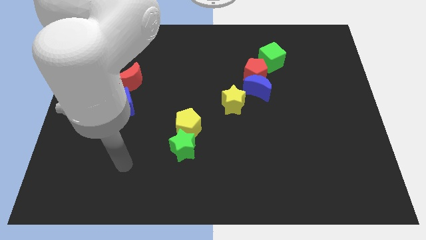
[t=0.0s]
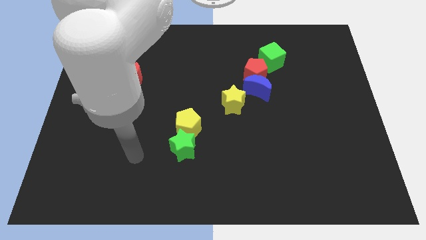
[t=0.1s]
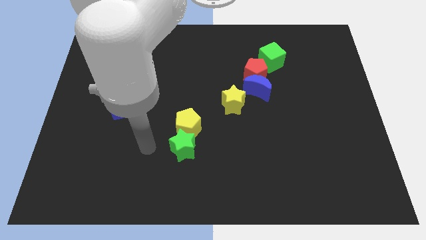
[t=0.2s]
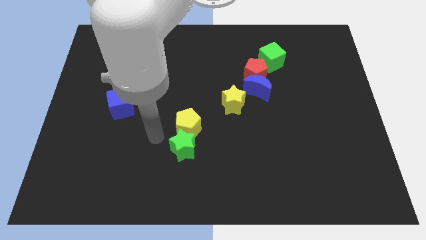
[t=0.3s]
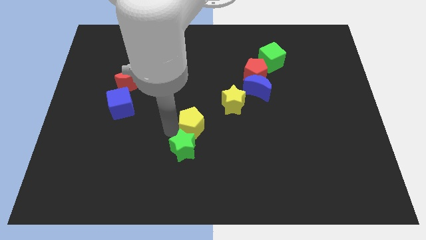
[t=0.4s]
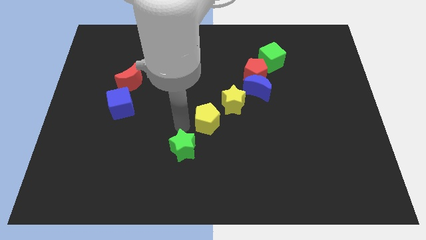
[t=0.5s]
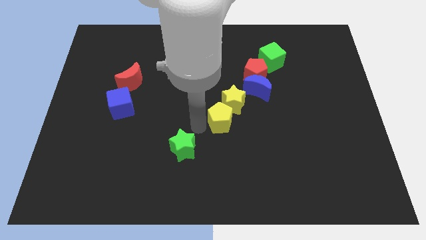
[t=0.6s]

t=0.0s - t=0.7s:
move the green star away from the yellow pentagon

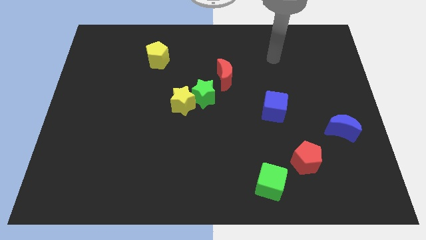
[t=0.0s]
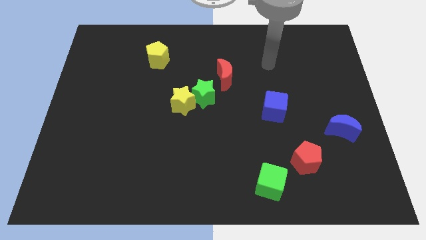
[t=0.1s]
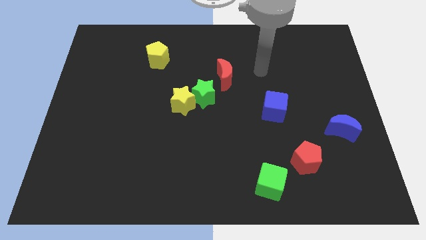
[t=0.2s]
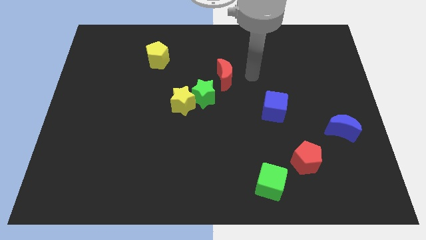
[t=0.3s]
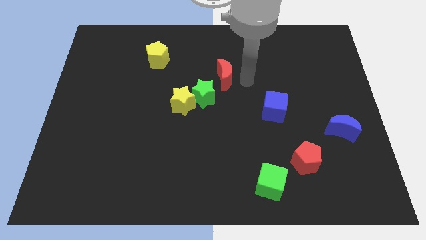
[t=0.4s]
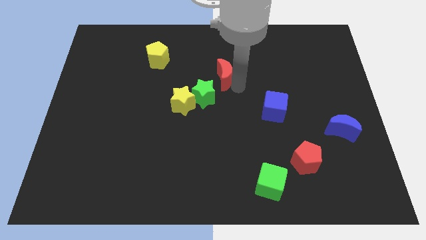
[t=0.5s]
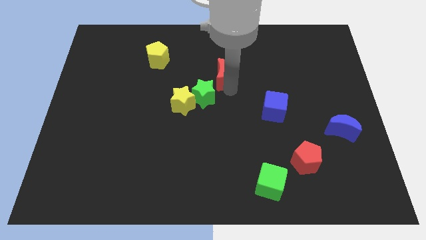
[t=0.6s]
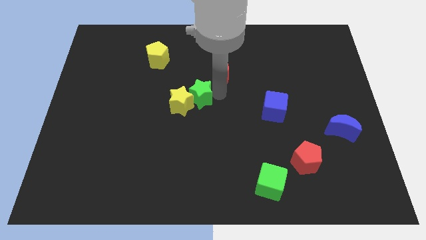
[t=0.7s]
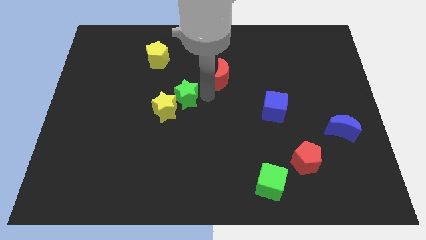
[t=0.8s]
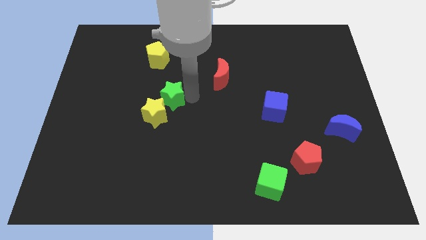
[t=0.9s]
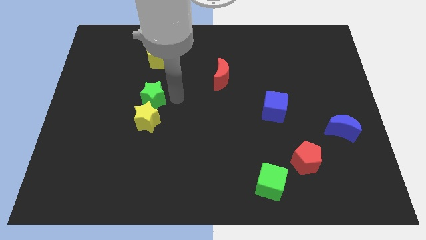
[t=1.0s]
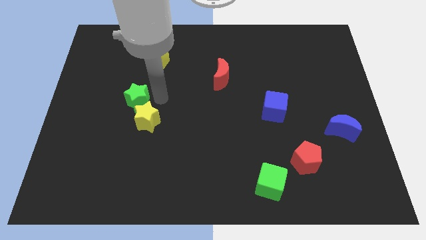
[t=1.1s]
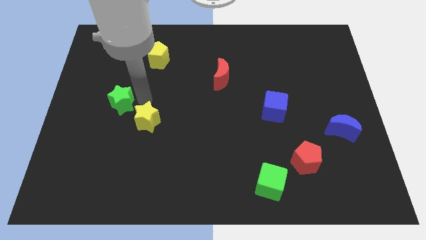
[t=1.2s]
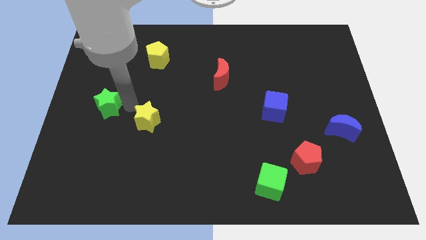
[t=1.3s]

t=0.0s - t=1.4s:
move the yellow star away from the green star

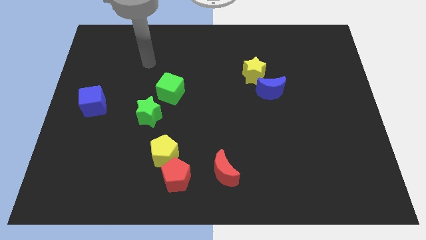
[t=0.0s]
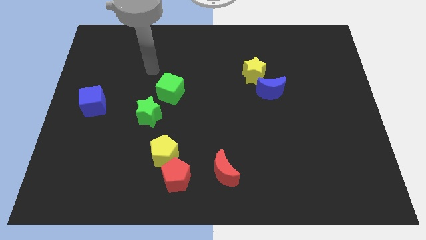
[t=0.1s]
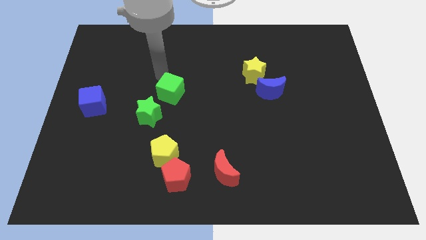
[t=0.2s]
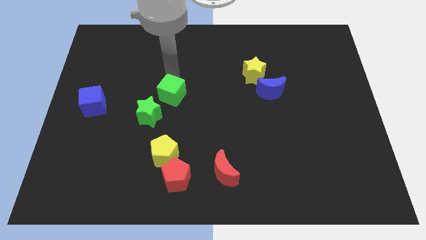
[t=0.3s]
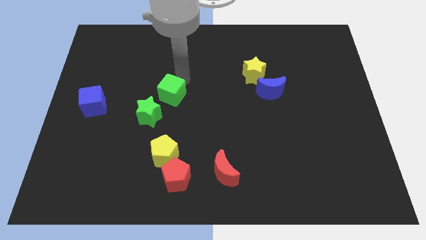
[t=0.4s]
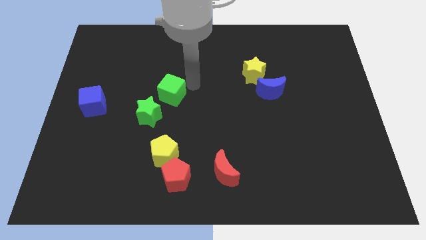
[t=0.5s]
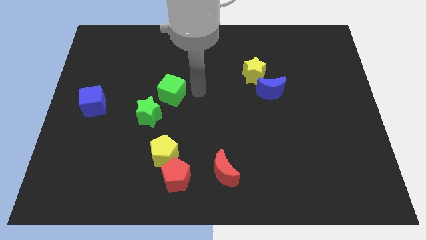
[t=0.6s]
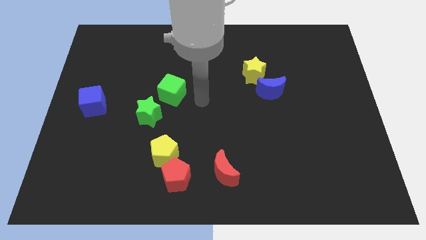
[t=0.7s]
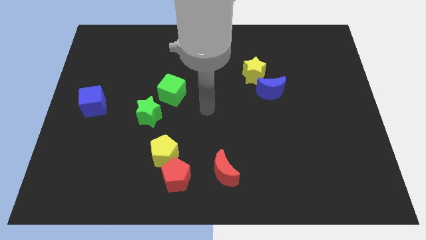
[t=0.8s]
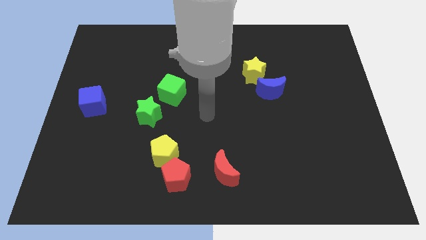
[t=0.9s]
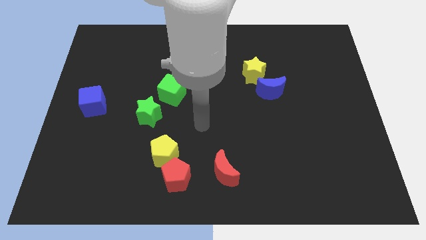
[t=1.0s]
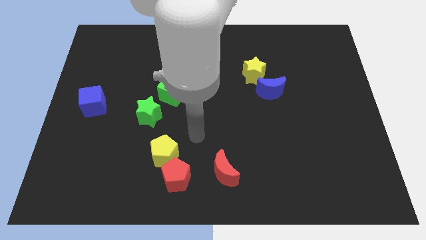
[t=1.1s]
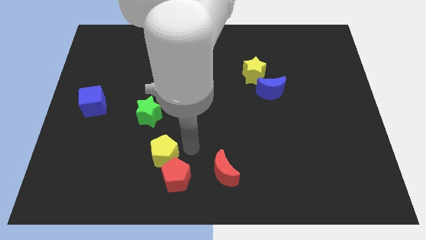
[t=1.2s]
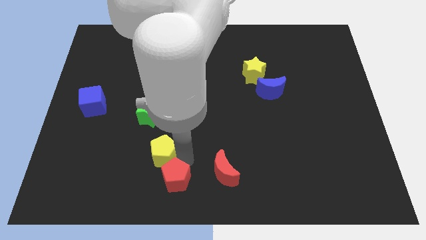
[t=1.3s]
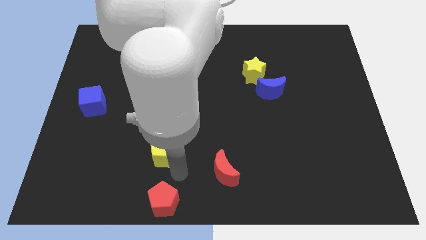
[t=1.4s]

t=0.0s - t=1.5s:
pull the yellow pentagon apart from the red pentagon

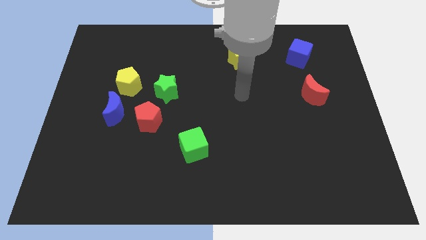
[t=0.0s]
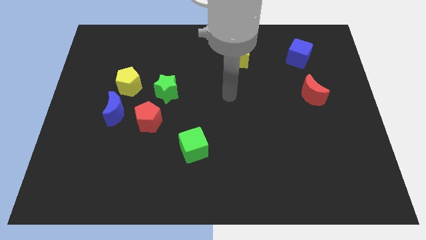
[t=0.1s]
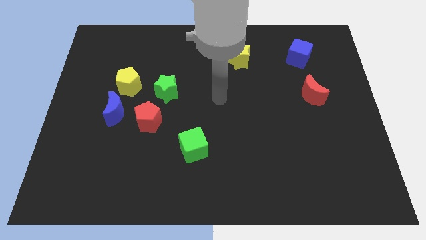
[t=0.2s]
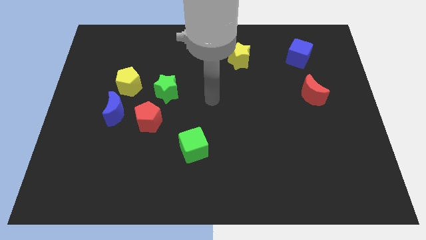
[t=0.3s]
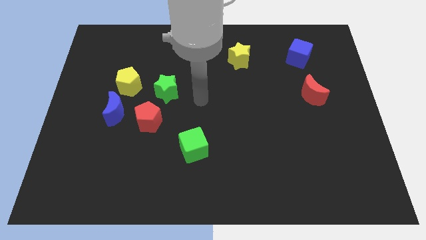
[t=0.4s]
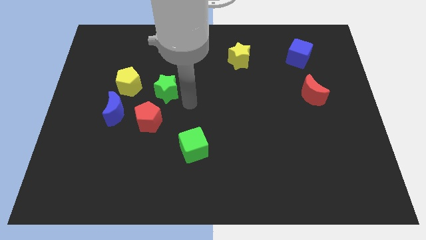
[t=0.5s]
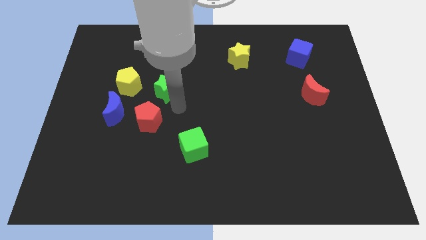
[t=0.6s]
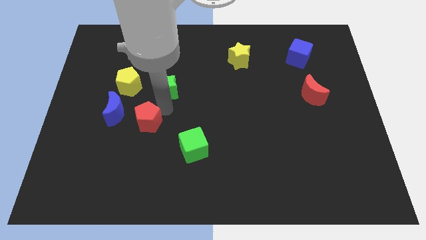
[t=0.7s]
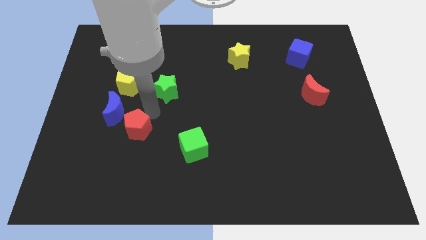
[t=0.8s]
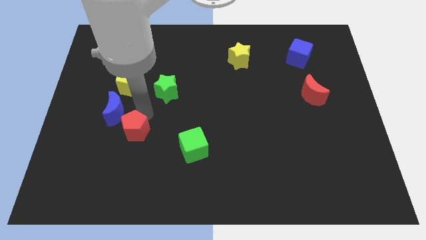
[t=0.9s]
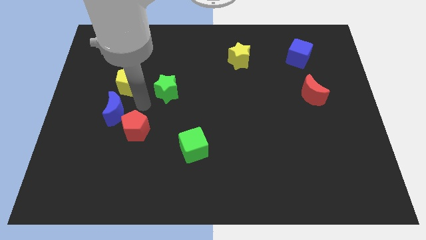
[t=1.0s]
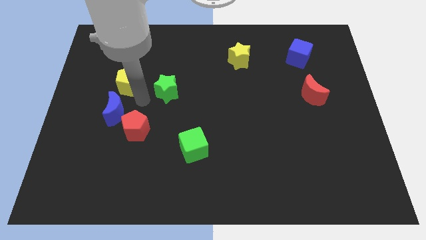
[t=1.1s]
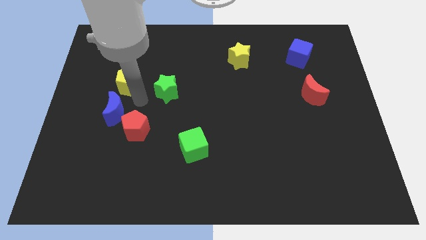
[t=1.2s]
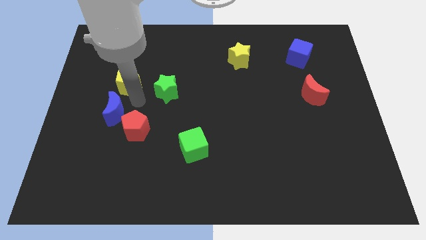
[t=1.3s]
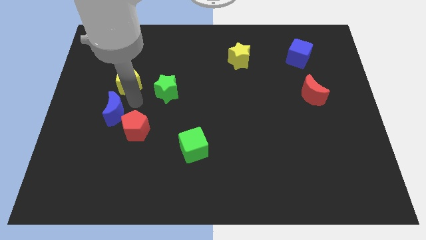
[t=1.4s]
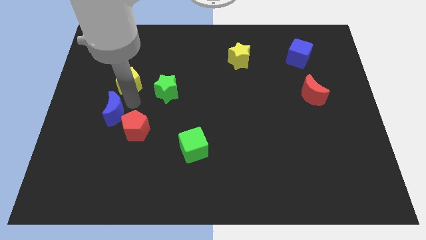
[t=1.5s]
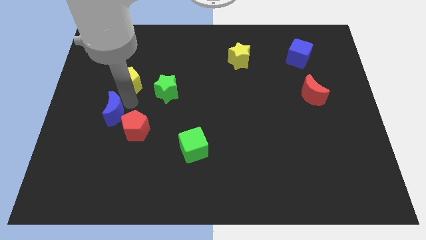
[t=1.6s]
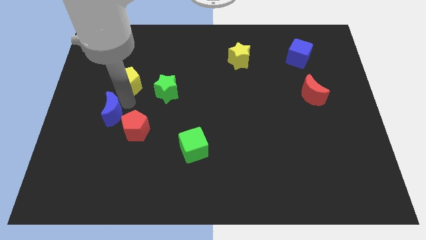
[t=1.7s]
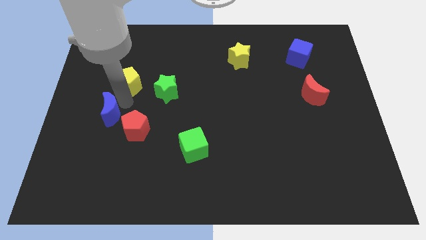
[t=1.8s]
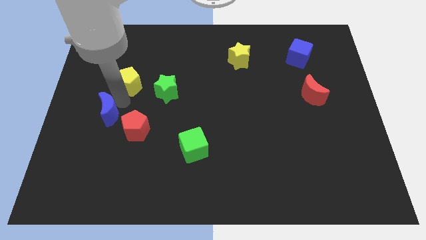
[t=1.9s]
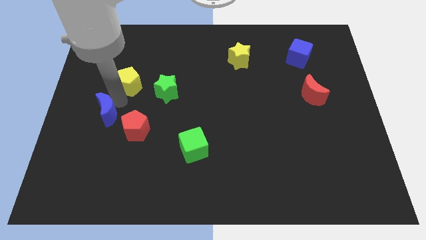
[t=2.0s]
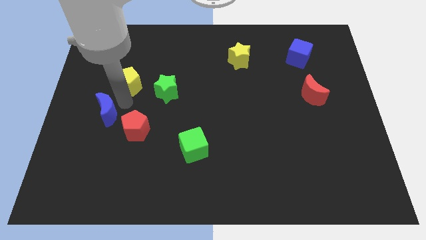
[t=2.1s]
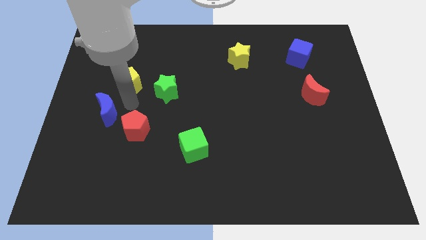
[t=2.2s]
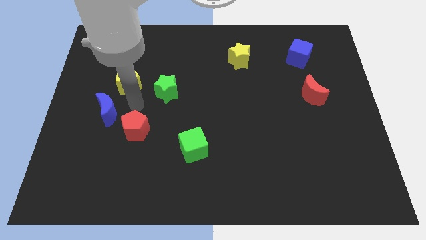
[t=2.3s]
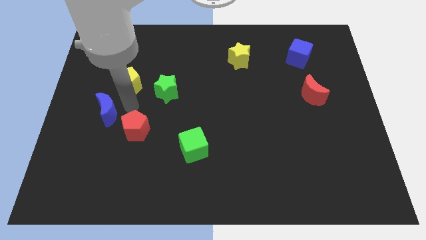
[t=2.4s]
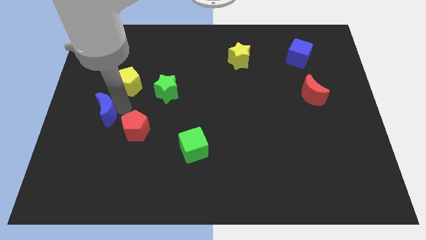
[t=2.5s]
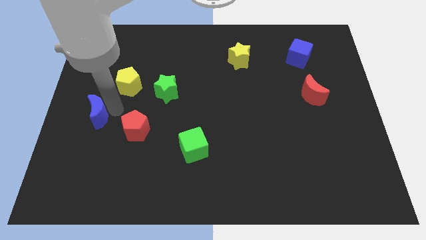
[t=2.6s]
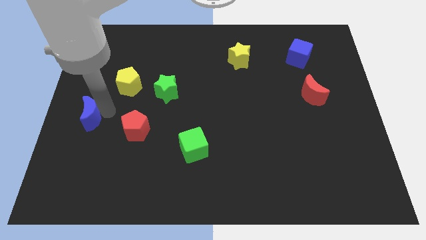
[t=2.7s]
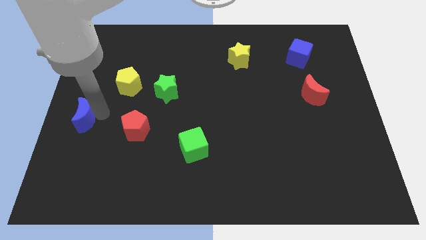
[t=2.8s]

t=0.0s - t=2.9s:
move the blue moon away from the red pentagon and yellow pentagon

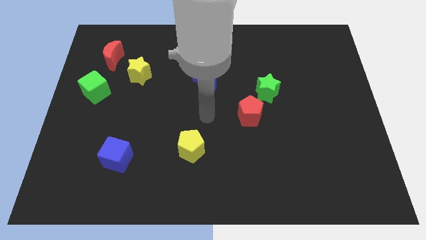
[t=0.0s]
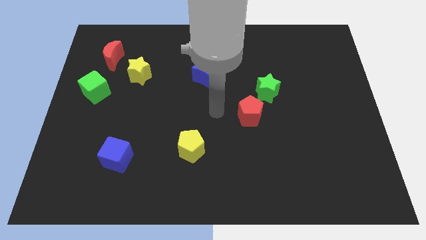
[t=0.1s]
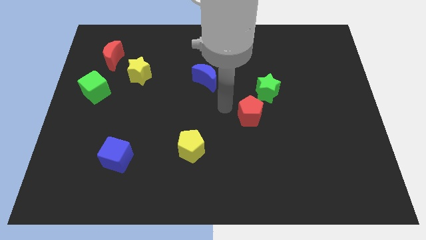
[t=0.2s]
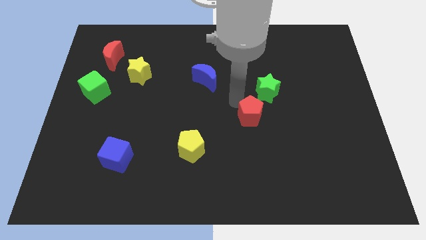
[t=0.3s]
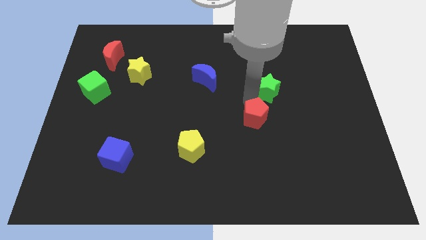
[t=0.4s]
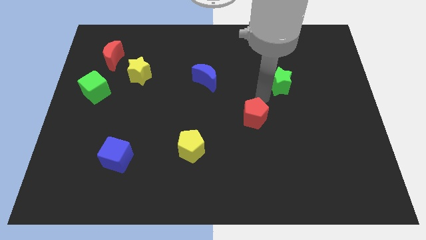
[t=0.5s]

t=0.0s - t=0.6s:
move the red pentagon away from the green star

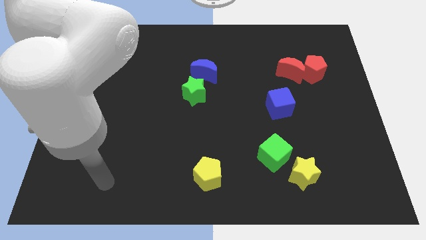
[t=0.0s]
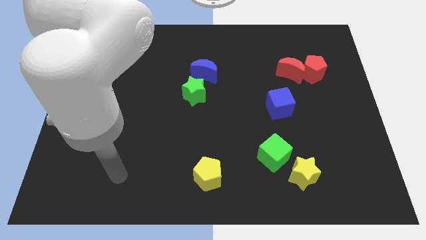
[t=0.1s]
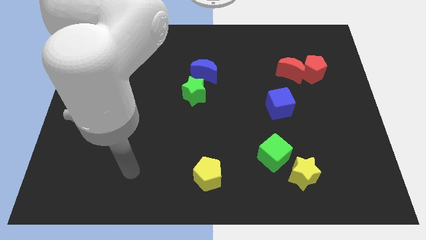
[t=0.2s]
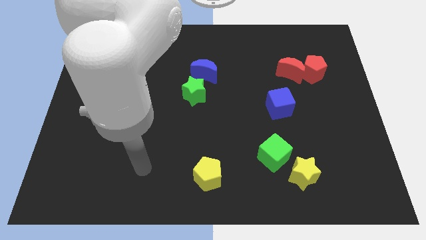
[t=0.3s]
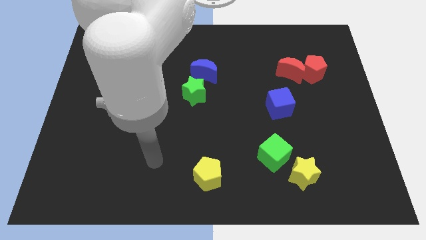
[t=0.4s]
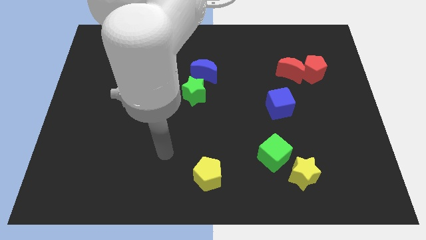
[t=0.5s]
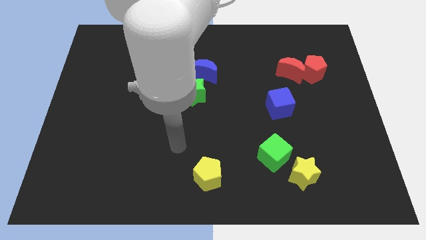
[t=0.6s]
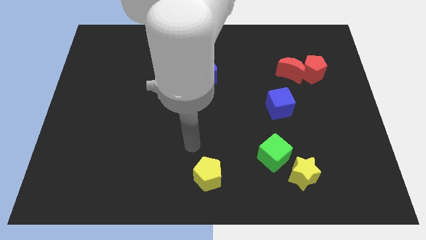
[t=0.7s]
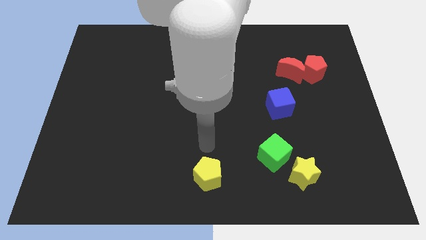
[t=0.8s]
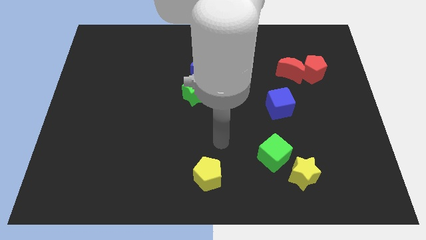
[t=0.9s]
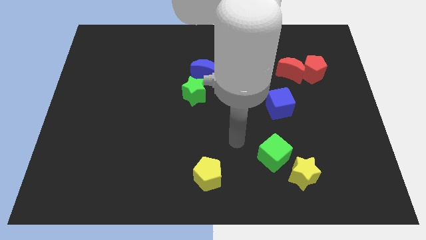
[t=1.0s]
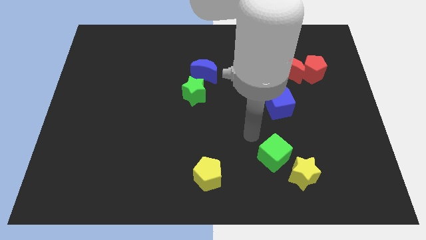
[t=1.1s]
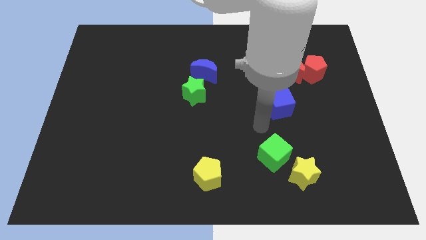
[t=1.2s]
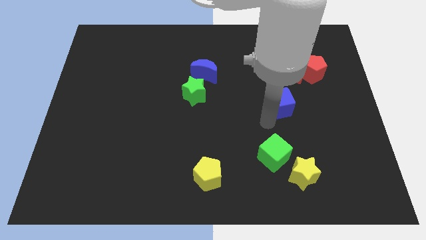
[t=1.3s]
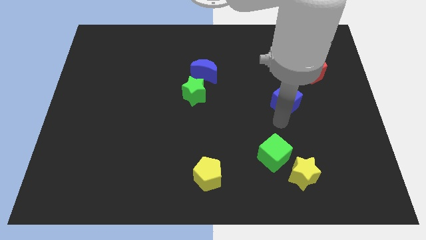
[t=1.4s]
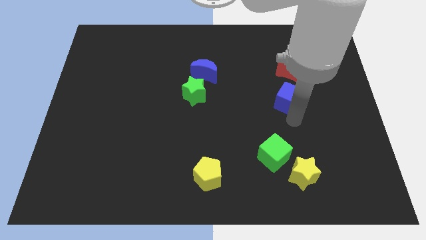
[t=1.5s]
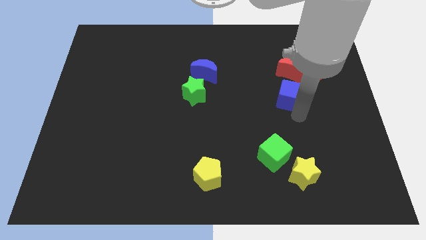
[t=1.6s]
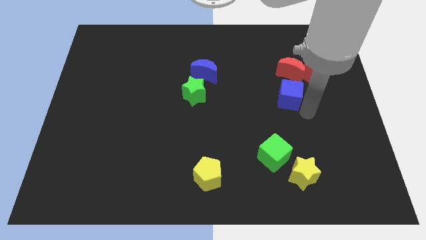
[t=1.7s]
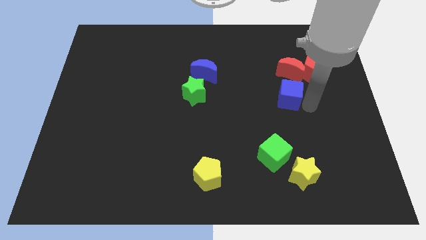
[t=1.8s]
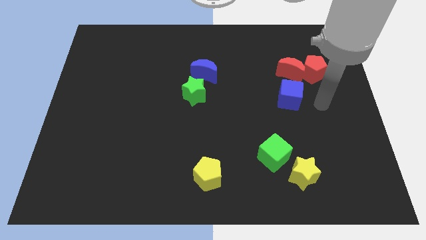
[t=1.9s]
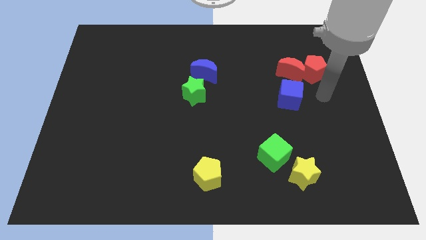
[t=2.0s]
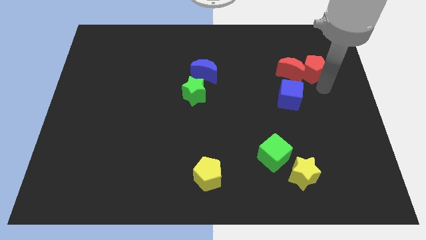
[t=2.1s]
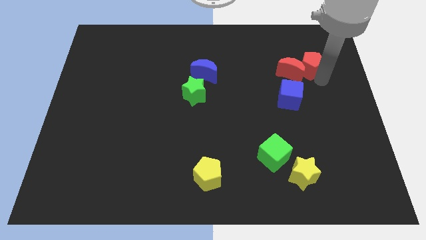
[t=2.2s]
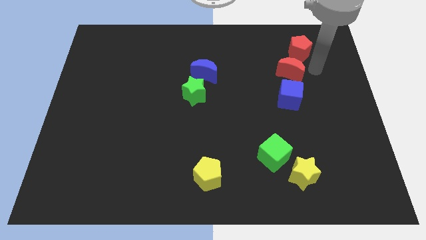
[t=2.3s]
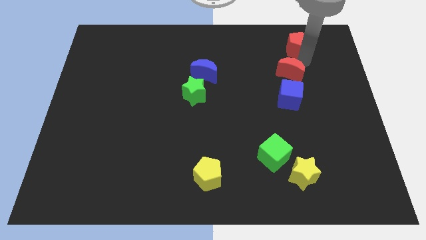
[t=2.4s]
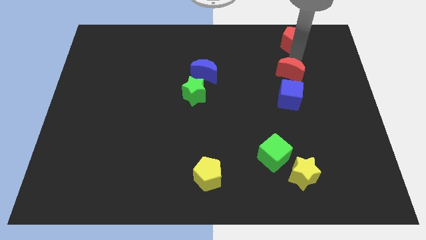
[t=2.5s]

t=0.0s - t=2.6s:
pull the red moon apart from the red pentagon
